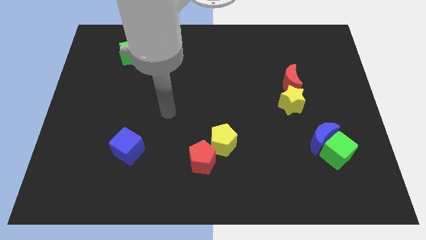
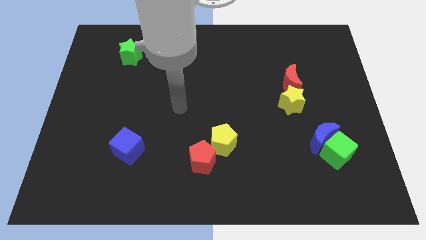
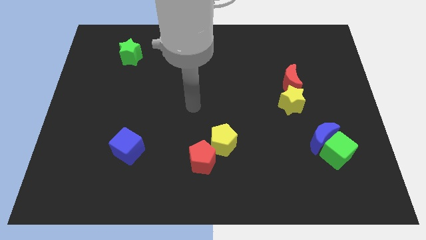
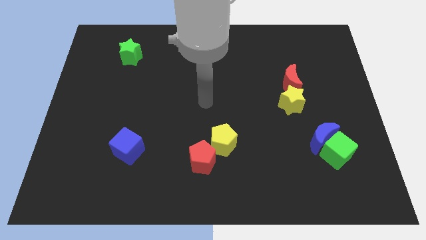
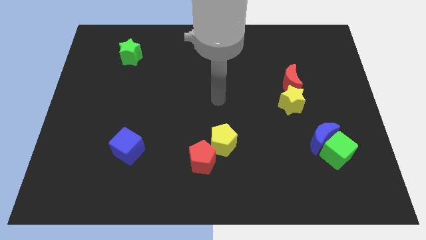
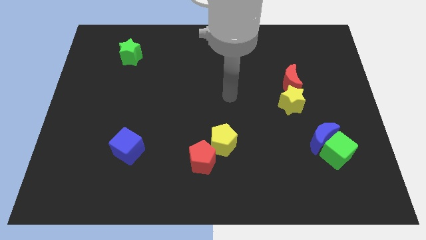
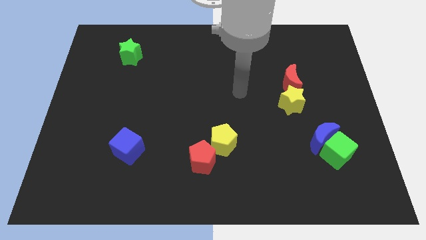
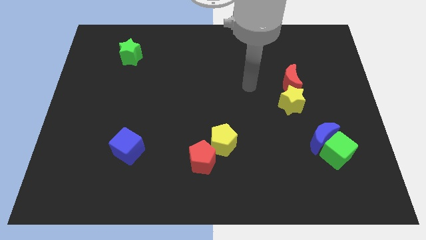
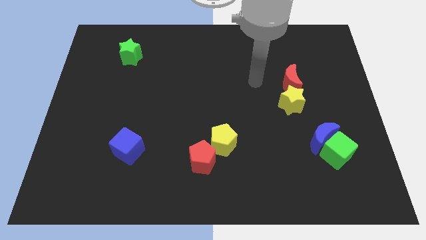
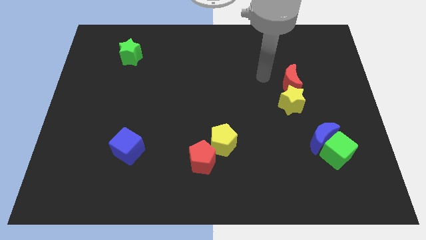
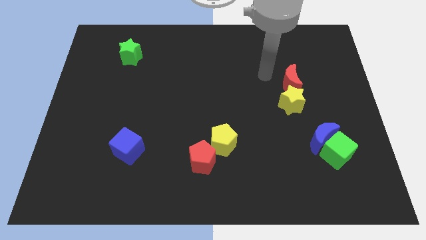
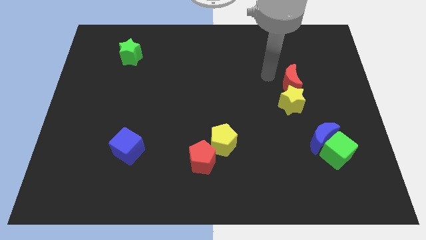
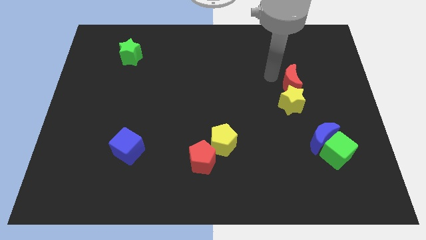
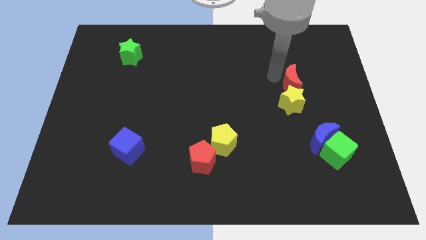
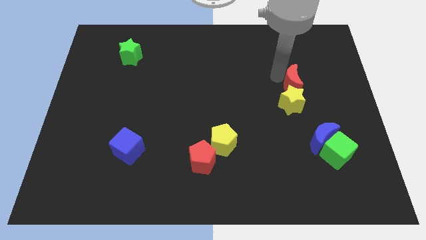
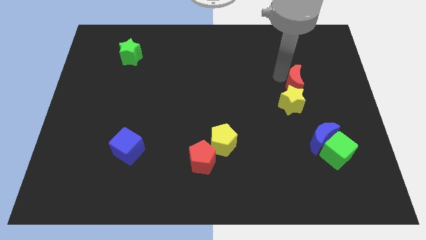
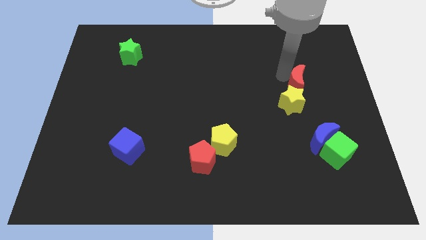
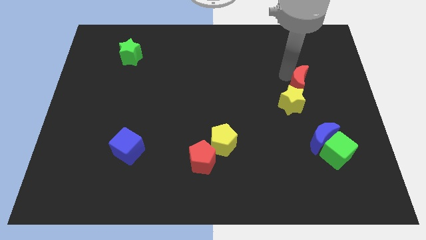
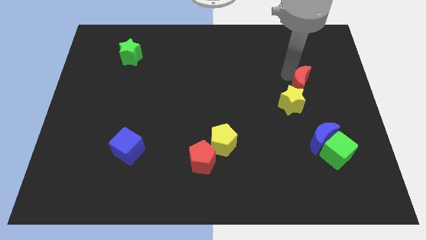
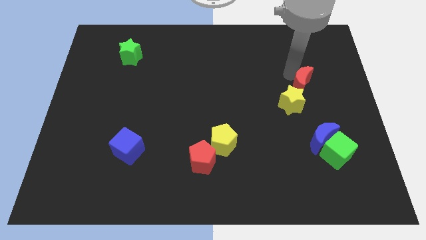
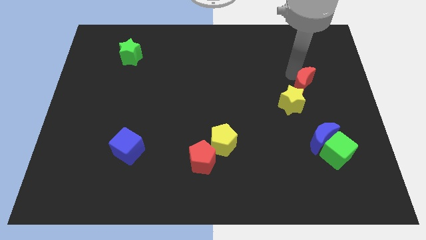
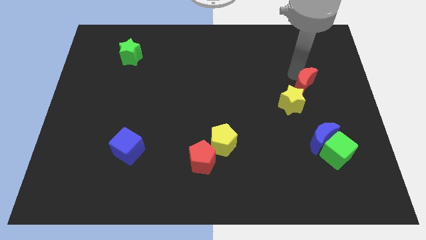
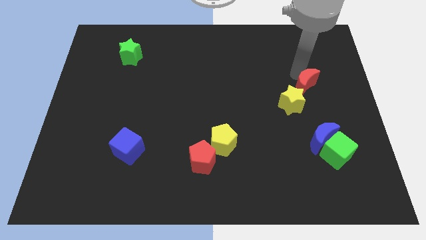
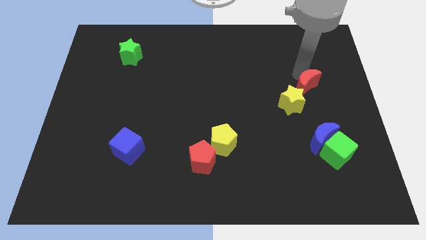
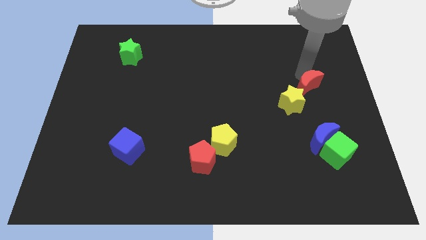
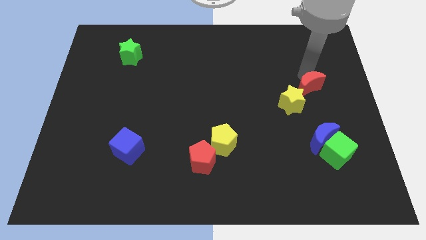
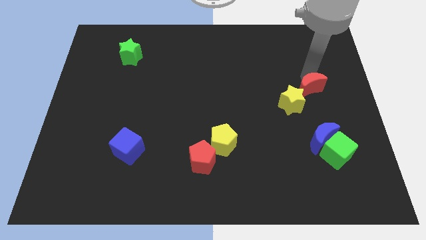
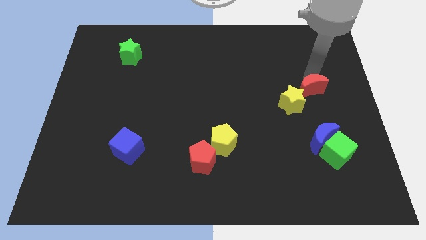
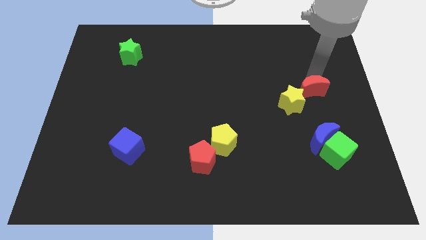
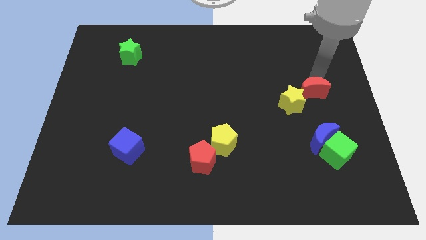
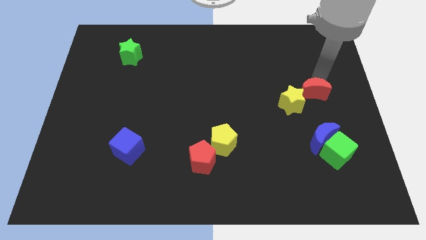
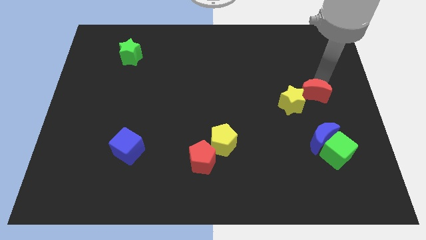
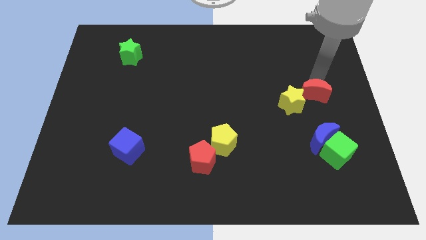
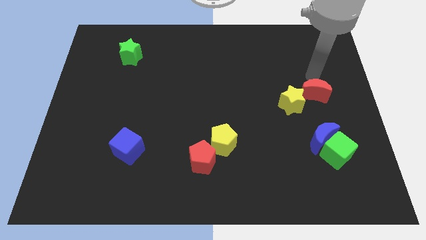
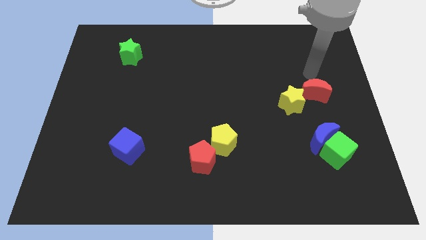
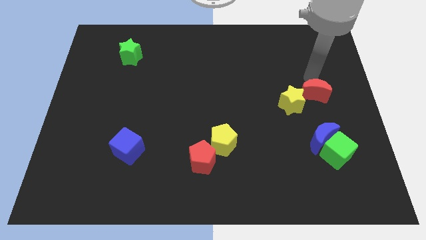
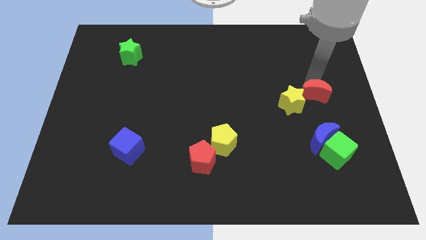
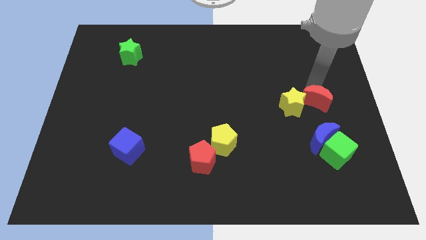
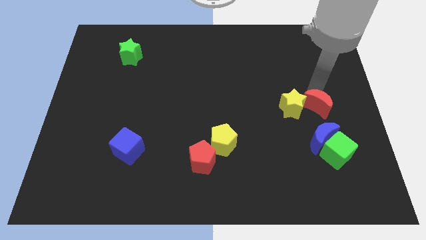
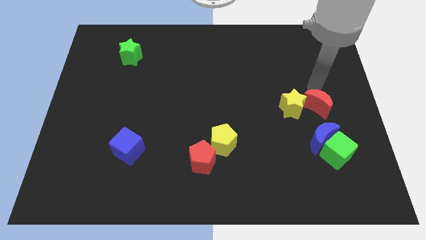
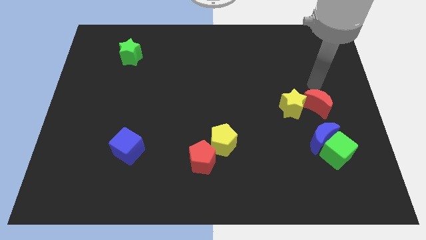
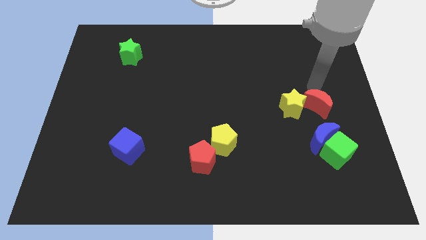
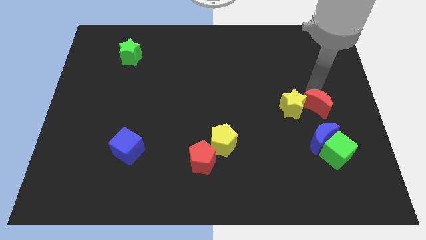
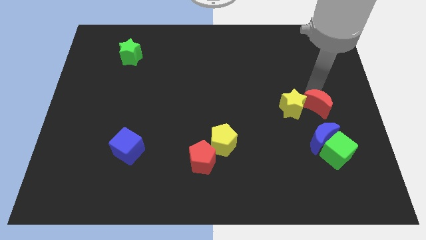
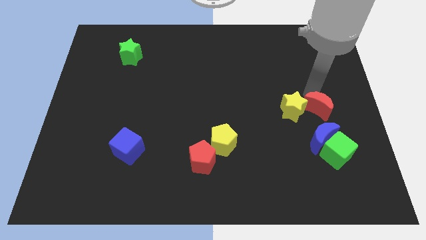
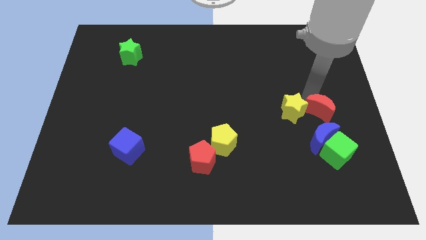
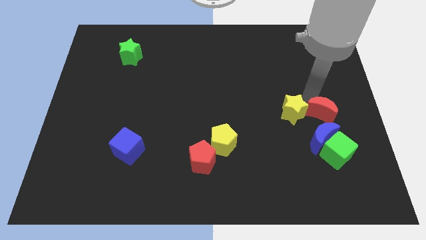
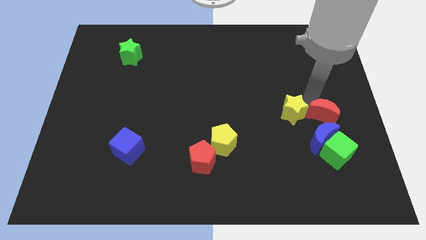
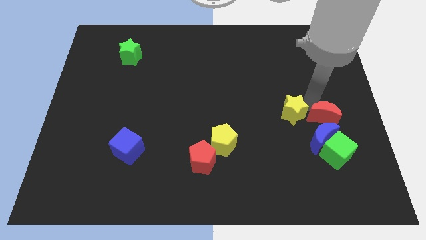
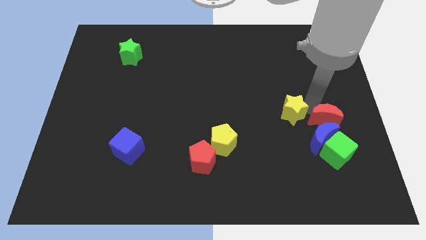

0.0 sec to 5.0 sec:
put the red moon to the blue moon

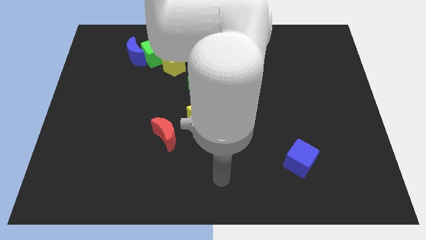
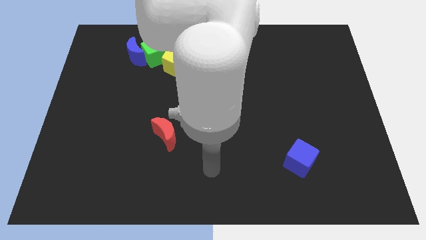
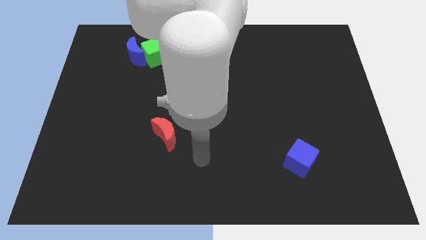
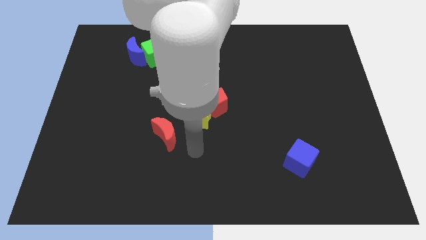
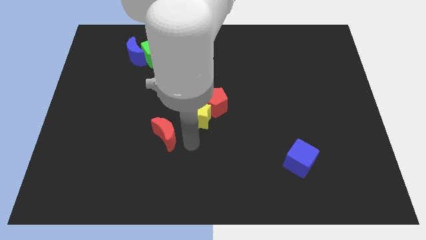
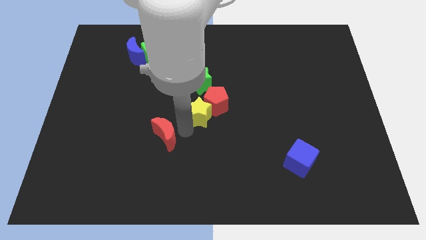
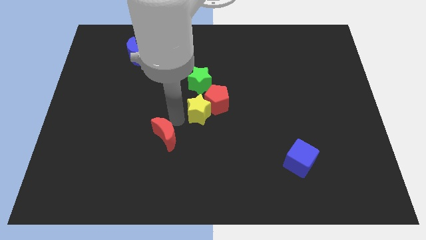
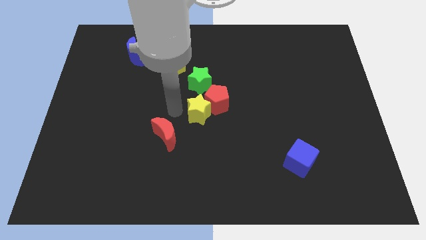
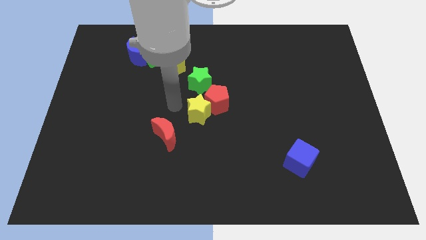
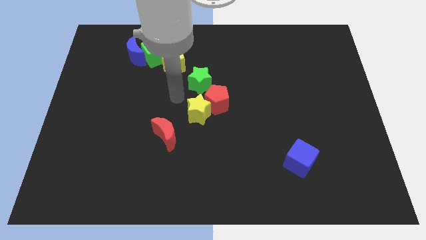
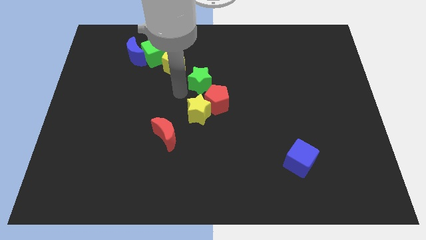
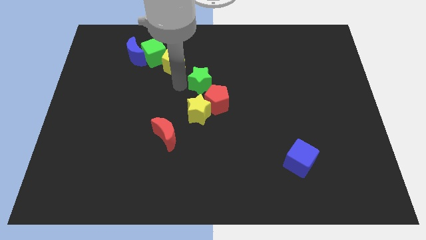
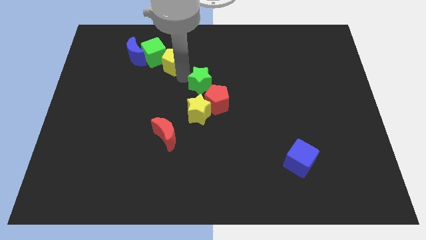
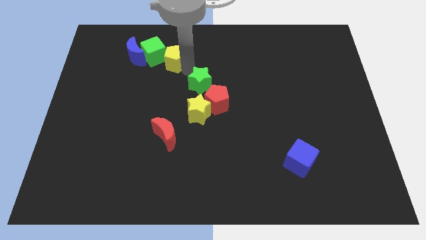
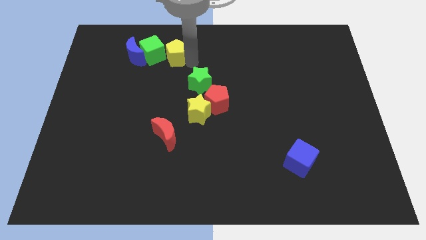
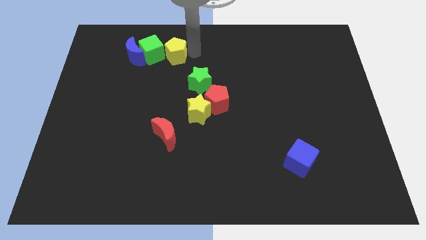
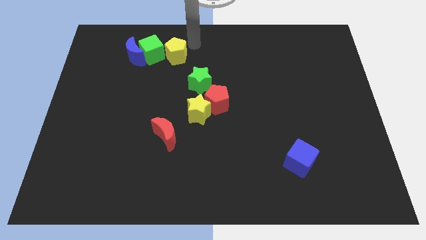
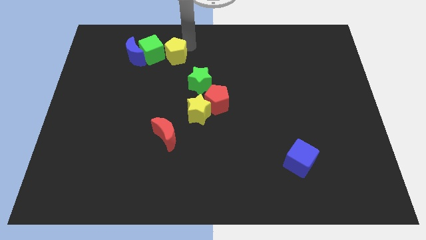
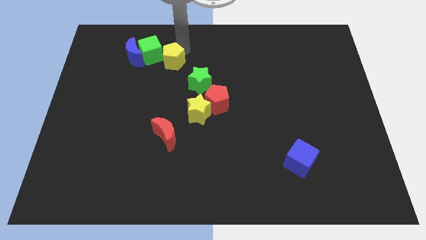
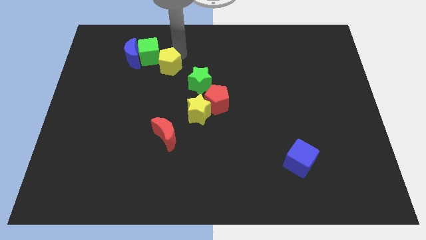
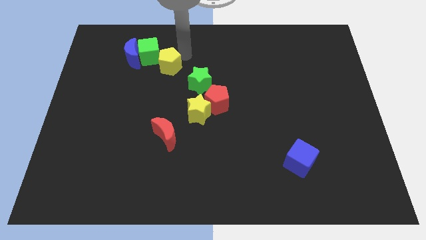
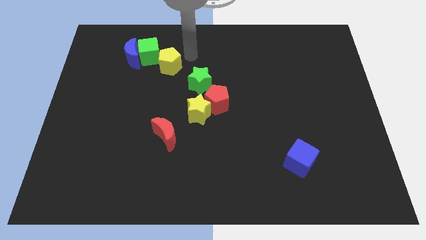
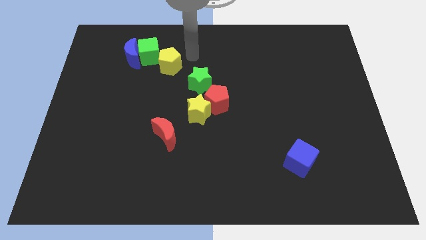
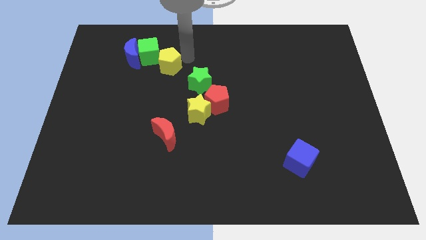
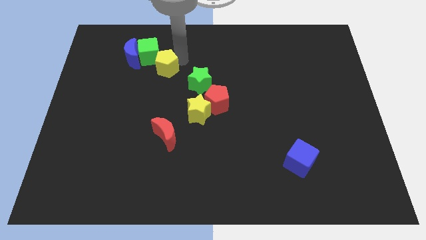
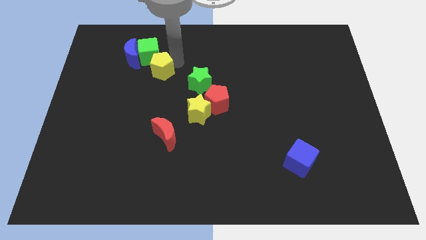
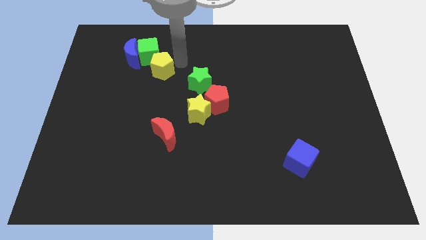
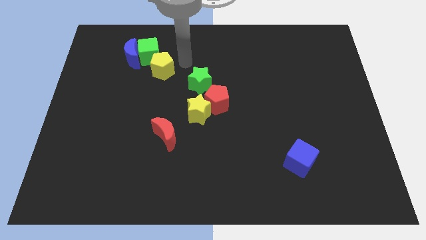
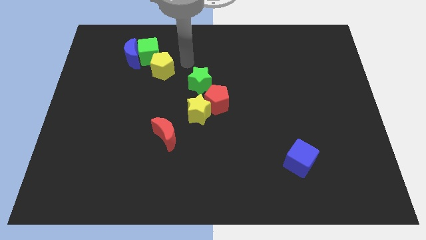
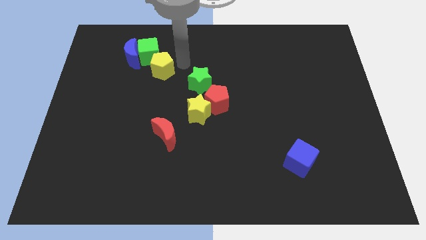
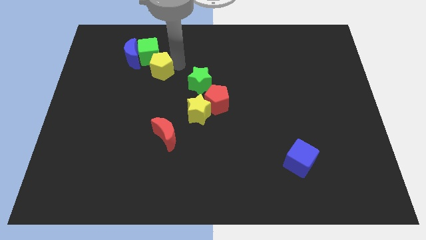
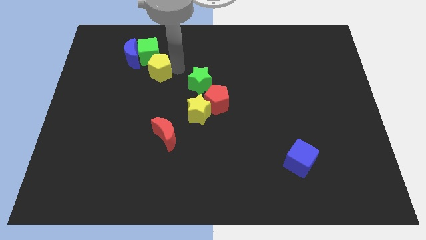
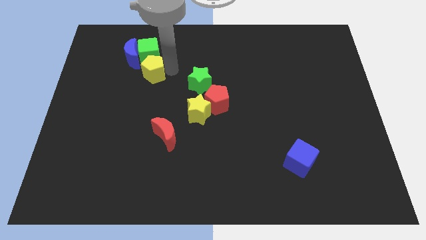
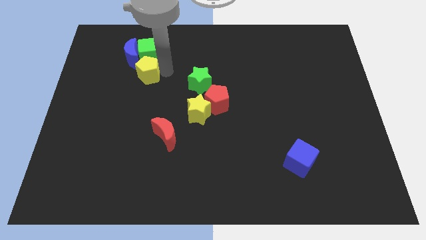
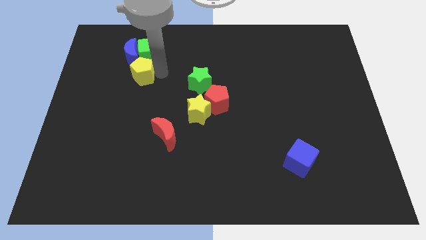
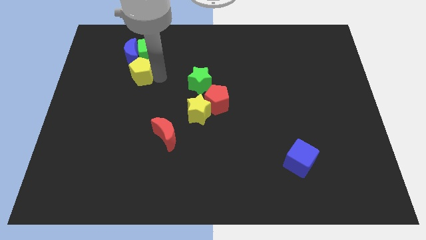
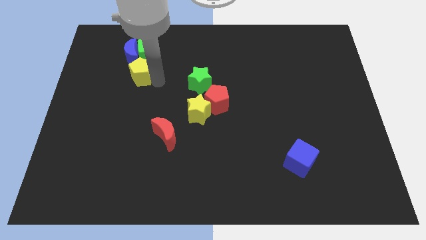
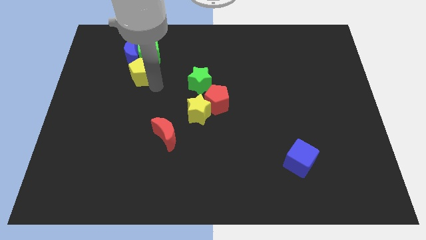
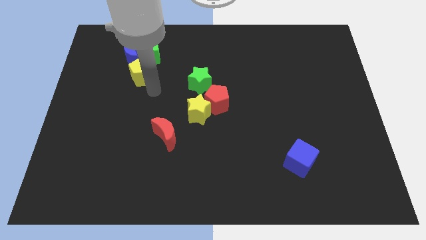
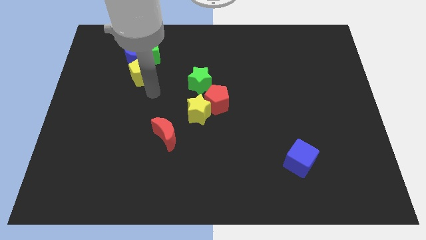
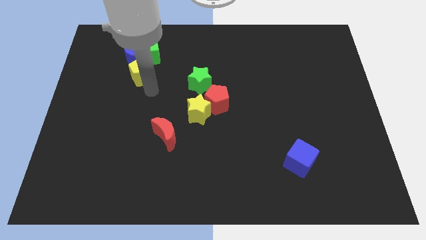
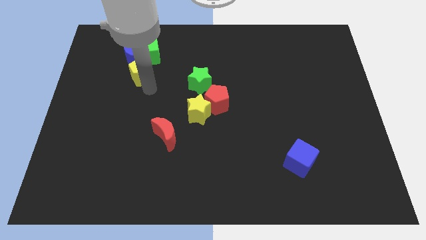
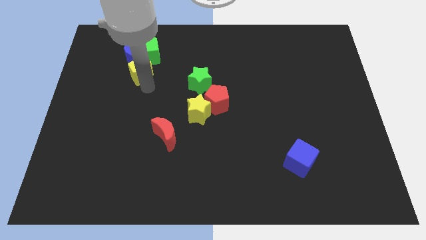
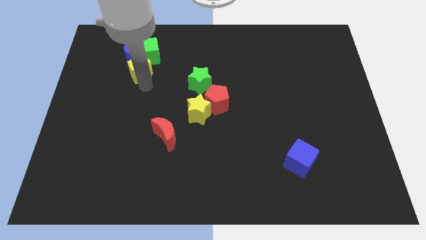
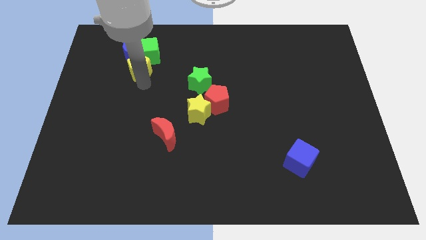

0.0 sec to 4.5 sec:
move the yellow pentagon close to the blue moon
